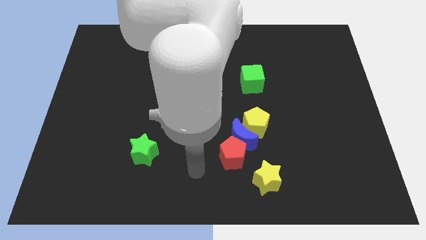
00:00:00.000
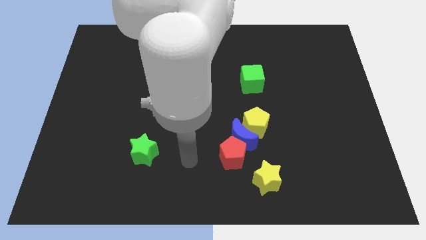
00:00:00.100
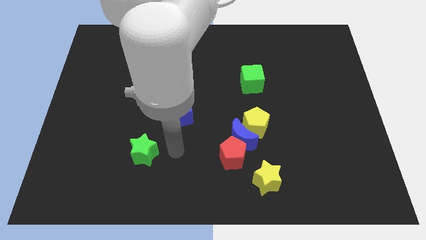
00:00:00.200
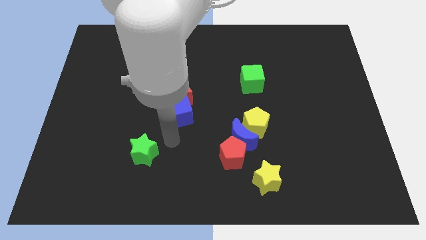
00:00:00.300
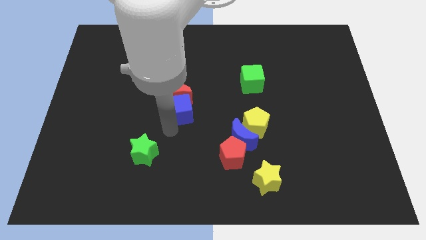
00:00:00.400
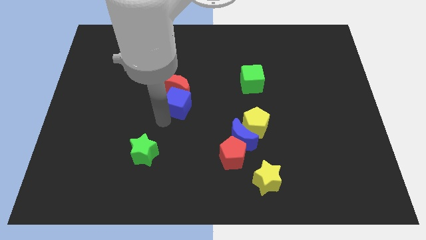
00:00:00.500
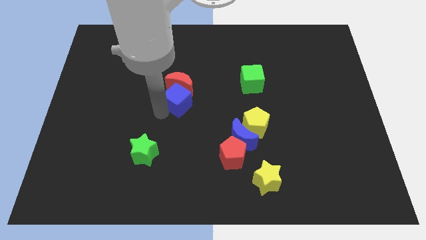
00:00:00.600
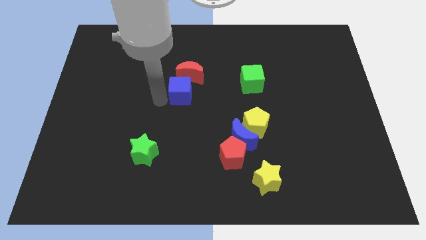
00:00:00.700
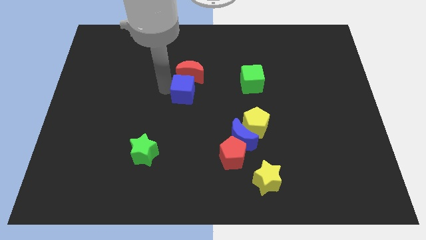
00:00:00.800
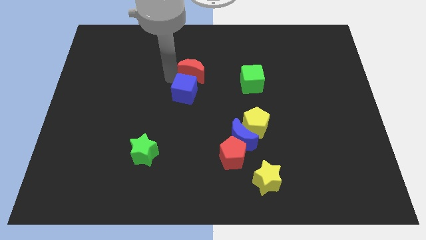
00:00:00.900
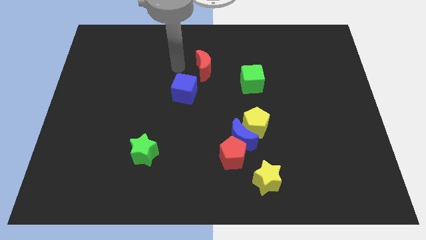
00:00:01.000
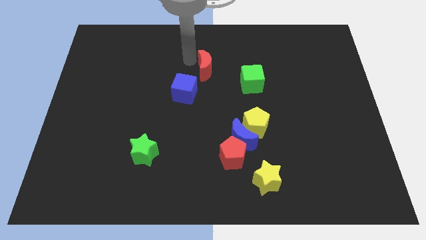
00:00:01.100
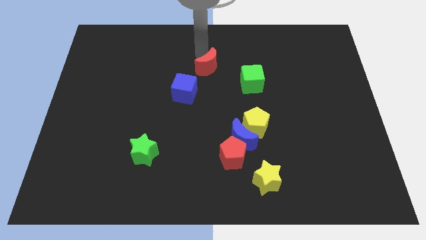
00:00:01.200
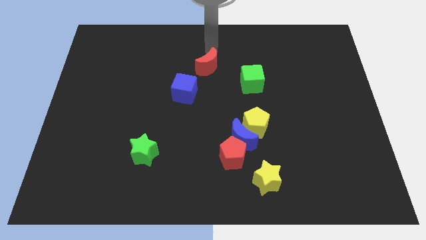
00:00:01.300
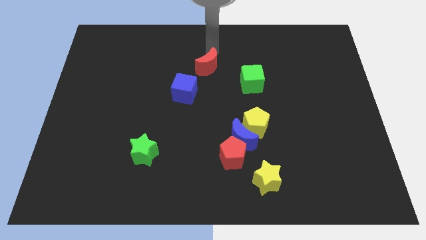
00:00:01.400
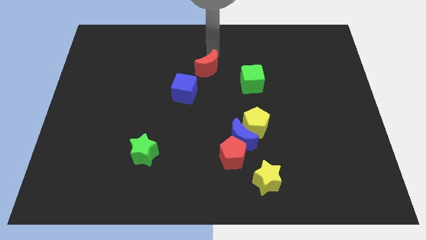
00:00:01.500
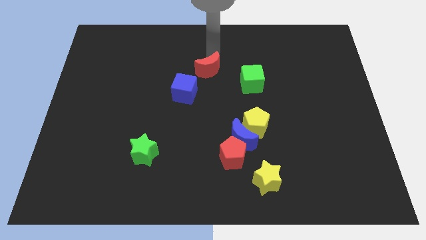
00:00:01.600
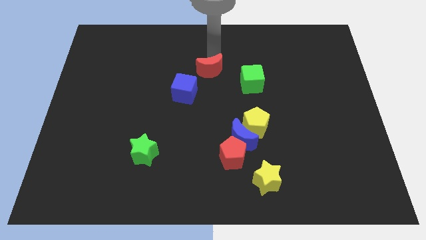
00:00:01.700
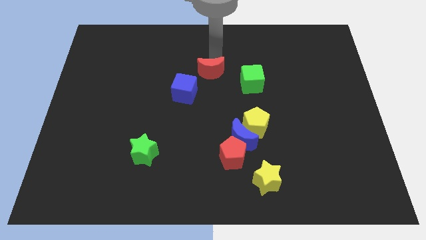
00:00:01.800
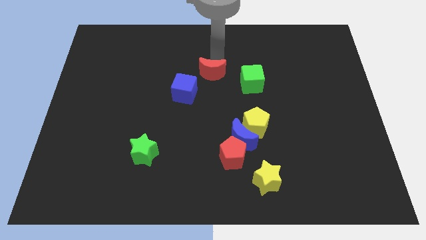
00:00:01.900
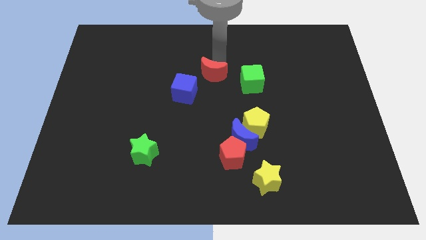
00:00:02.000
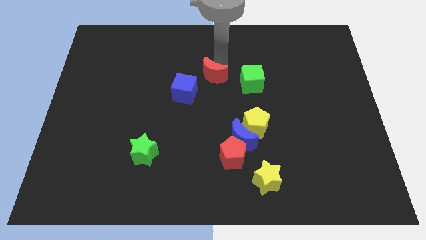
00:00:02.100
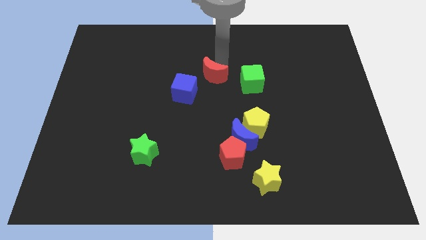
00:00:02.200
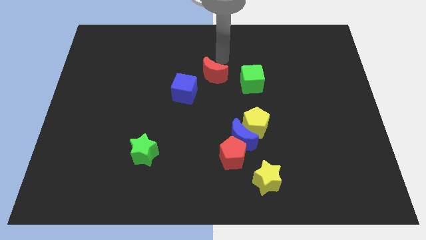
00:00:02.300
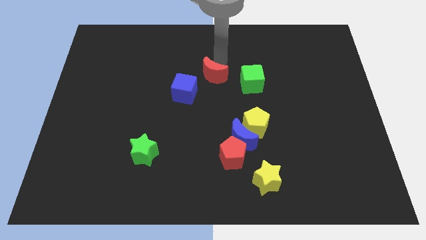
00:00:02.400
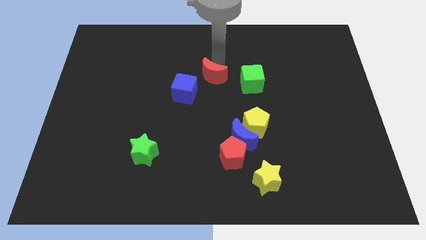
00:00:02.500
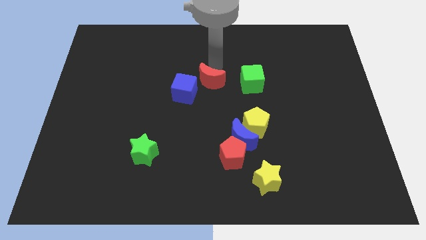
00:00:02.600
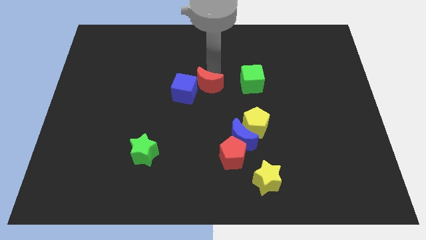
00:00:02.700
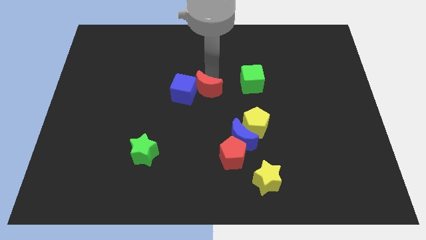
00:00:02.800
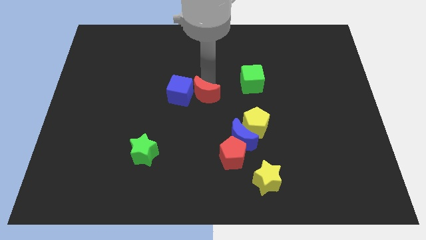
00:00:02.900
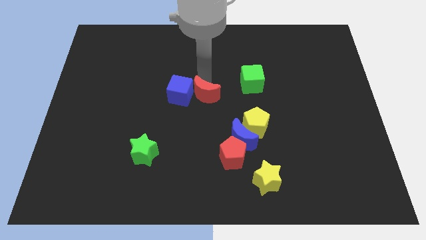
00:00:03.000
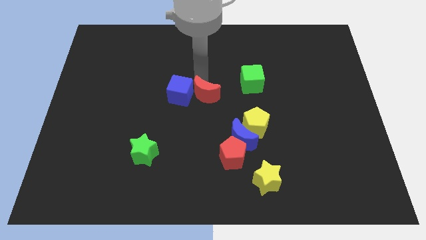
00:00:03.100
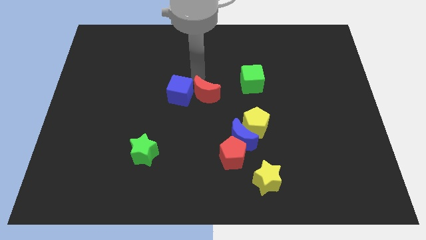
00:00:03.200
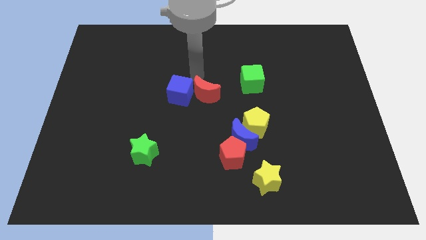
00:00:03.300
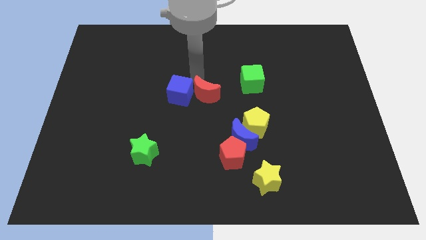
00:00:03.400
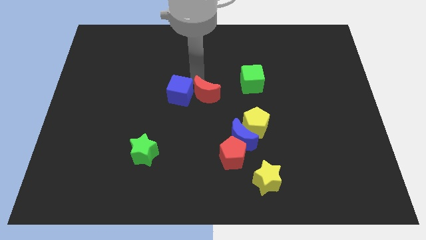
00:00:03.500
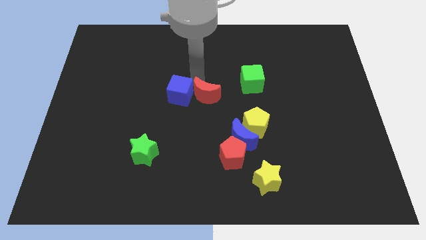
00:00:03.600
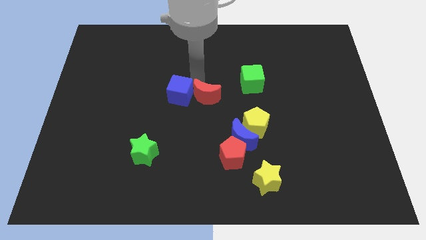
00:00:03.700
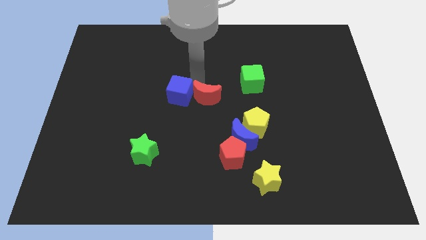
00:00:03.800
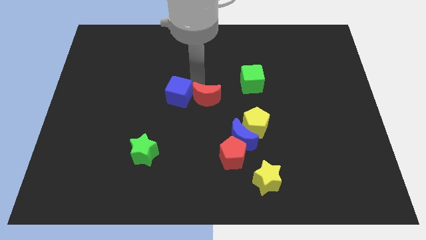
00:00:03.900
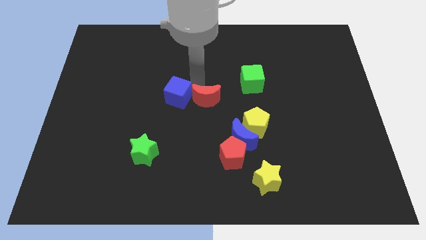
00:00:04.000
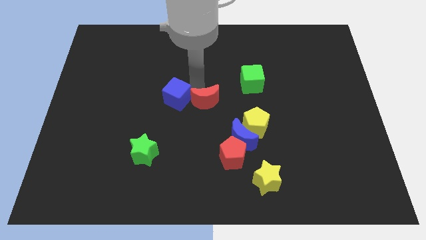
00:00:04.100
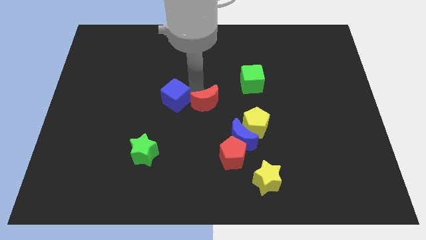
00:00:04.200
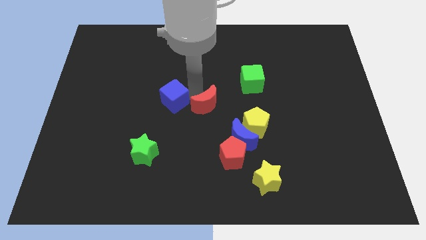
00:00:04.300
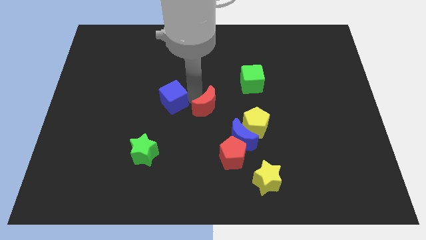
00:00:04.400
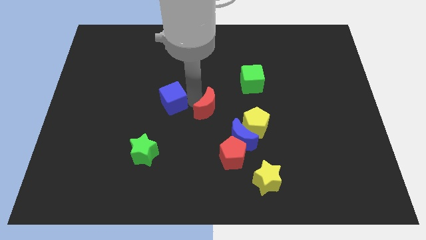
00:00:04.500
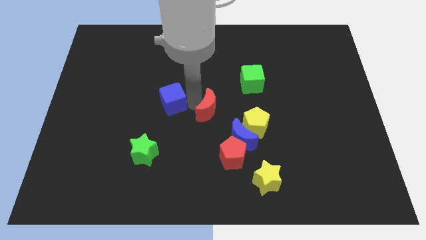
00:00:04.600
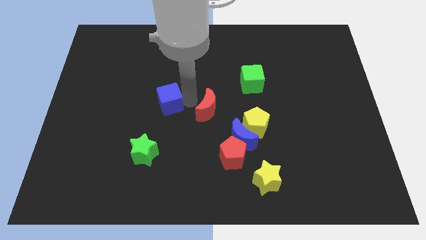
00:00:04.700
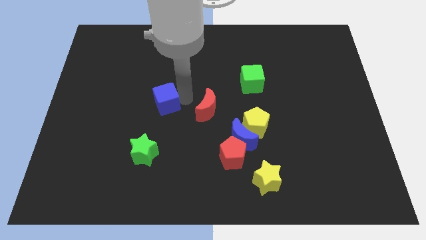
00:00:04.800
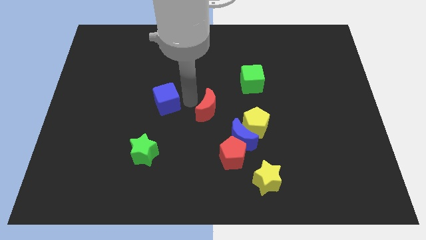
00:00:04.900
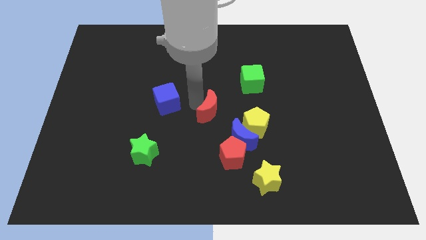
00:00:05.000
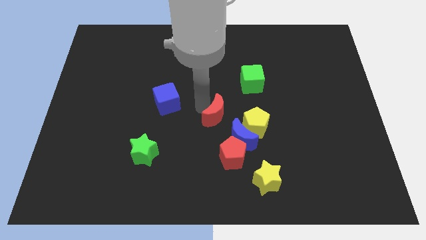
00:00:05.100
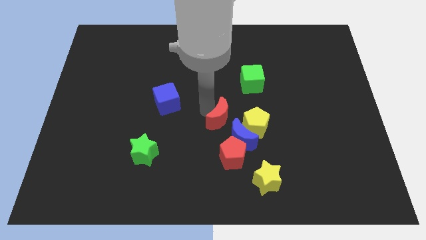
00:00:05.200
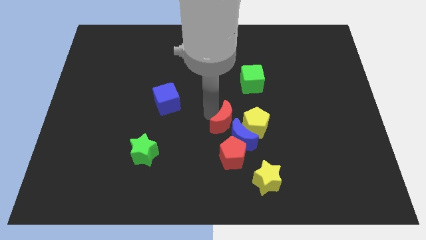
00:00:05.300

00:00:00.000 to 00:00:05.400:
move the red moon towards the blue moon

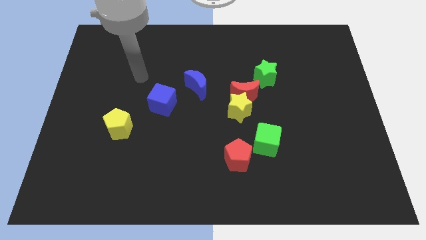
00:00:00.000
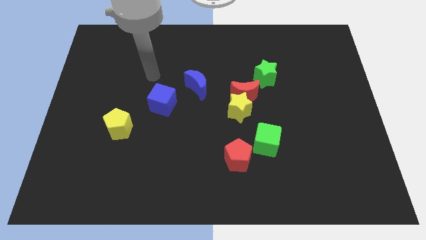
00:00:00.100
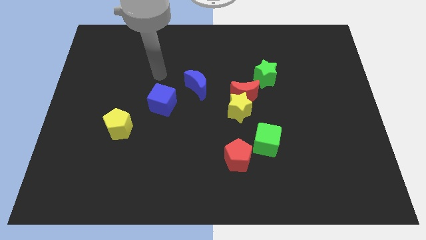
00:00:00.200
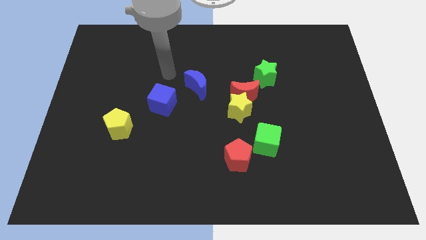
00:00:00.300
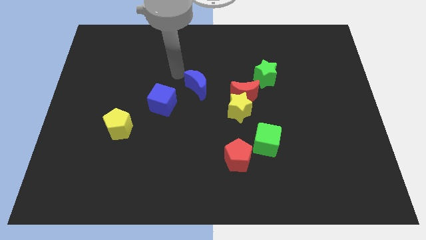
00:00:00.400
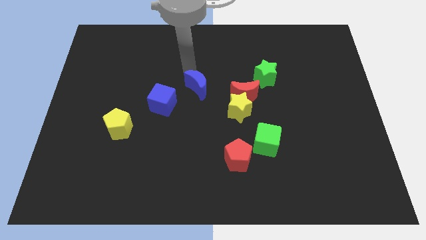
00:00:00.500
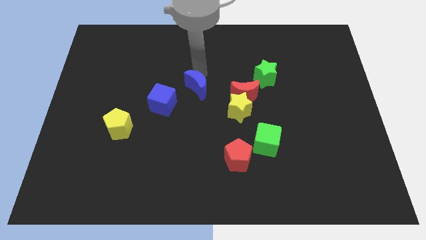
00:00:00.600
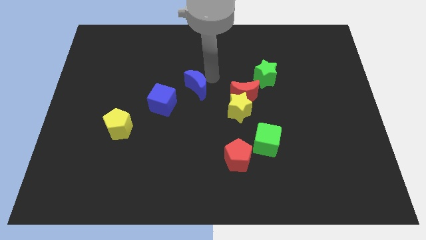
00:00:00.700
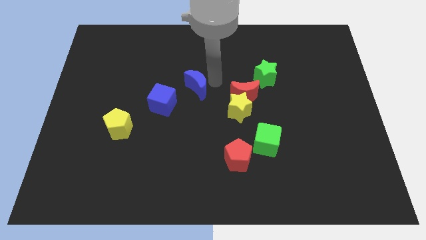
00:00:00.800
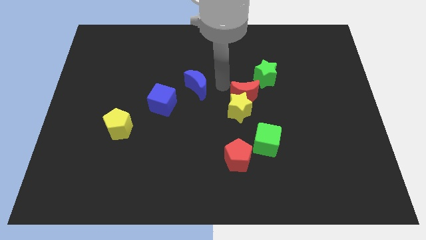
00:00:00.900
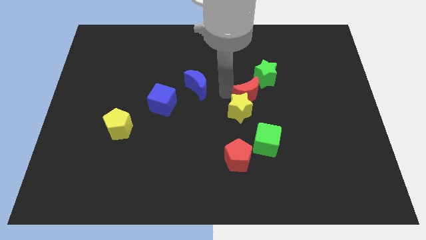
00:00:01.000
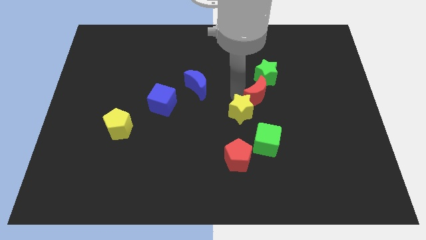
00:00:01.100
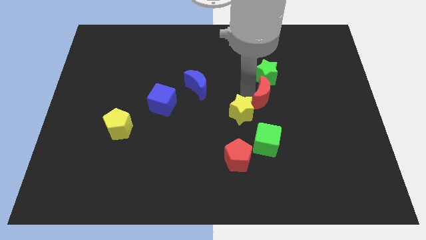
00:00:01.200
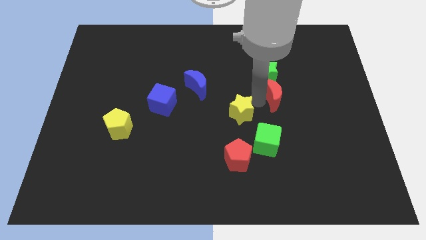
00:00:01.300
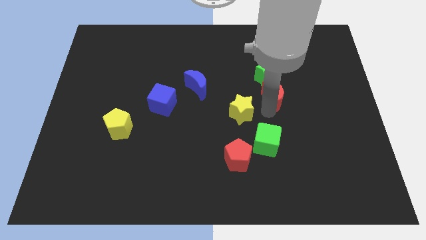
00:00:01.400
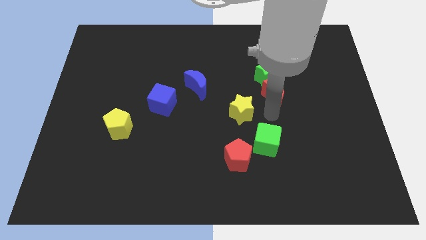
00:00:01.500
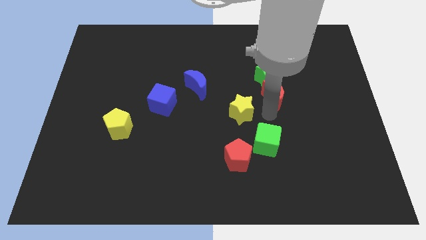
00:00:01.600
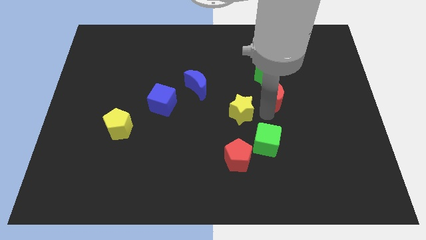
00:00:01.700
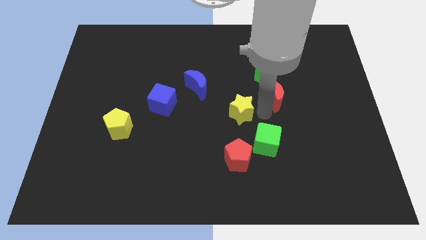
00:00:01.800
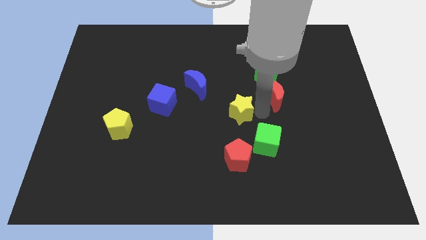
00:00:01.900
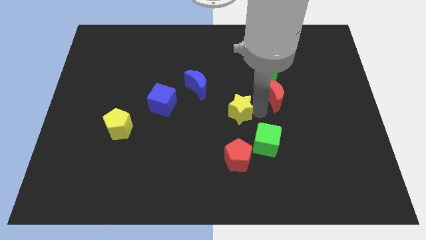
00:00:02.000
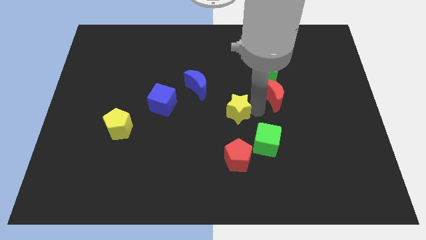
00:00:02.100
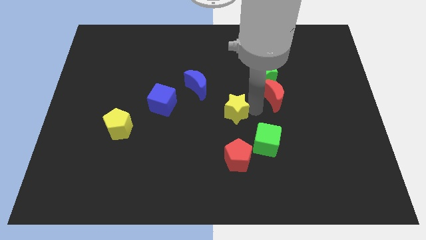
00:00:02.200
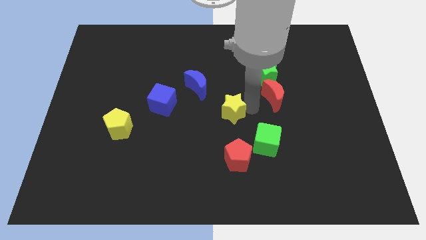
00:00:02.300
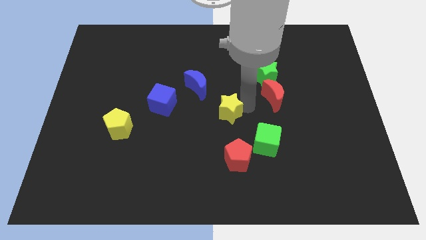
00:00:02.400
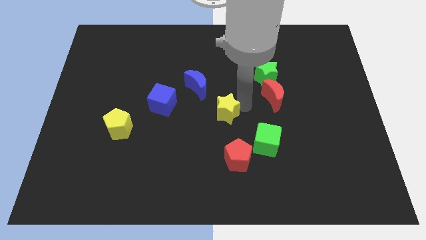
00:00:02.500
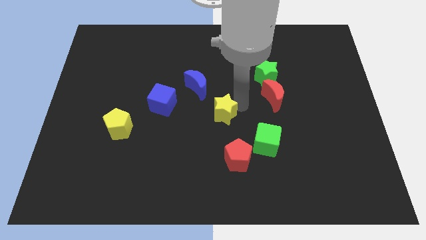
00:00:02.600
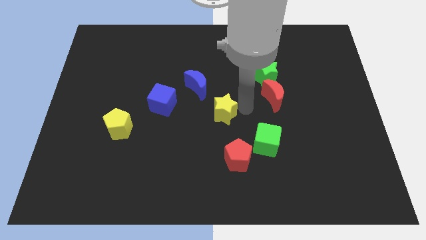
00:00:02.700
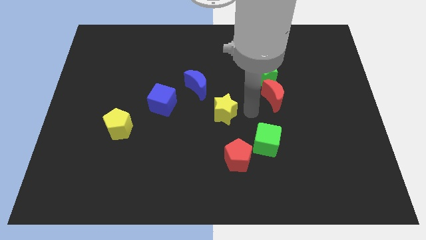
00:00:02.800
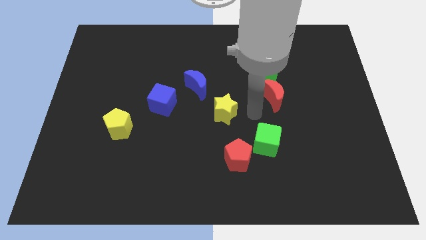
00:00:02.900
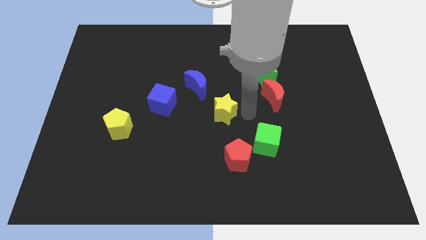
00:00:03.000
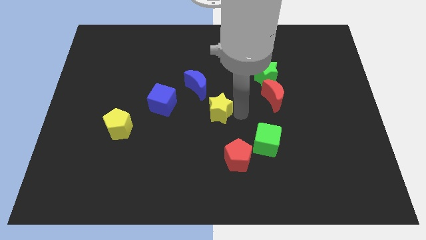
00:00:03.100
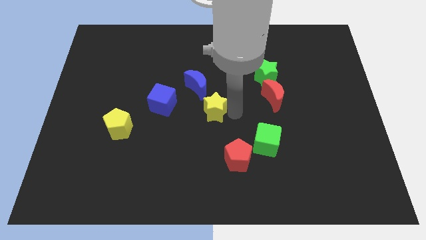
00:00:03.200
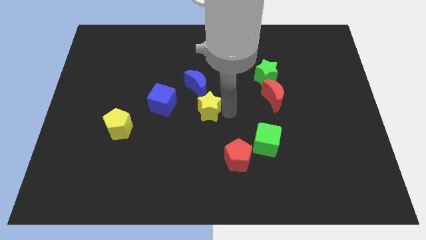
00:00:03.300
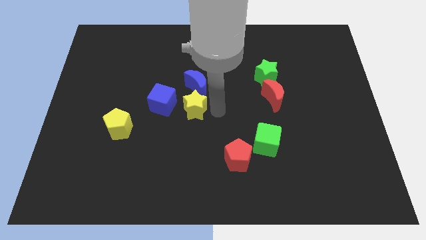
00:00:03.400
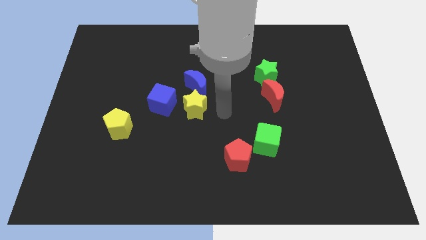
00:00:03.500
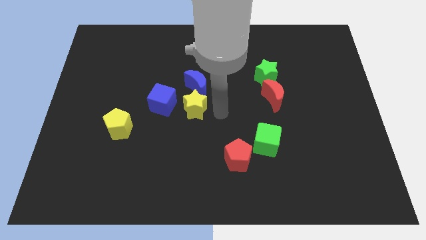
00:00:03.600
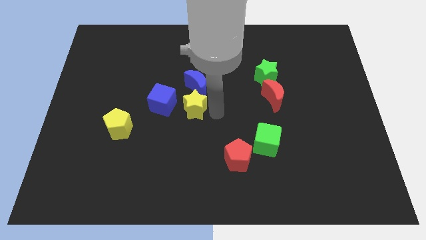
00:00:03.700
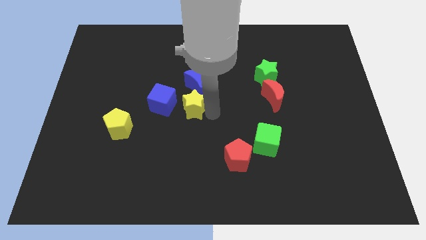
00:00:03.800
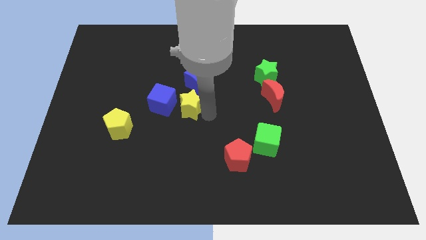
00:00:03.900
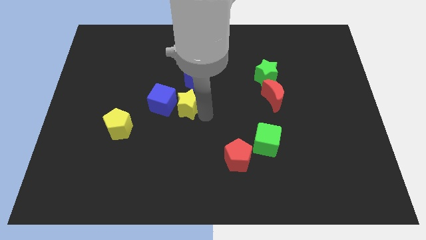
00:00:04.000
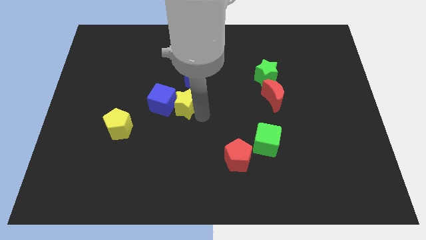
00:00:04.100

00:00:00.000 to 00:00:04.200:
slide the yellow star to the blue cube
